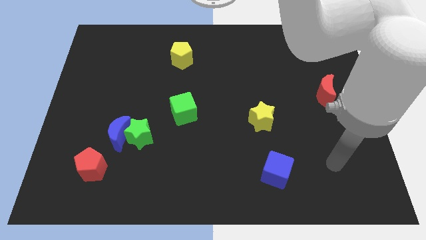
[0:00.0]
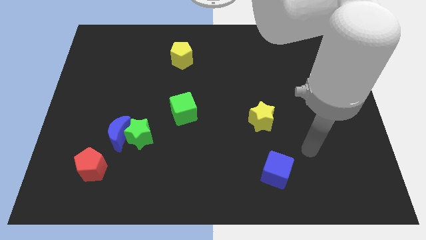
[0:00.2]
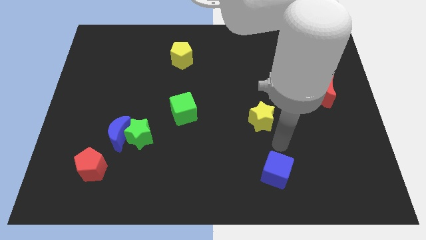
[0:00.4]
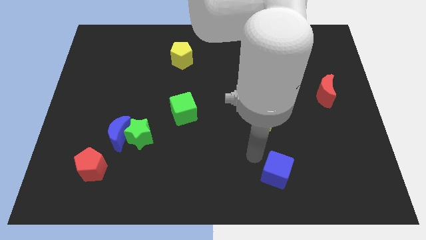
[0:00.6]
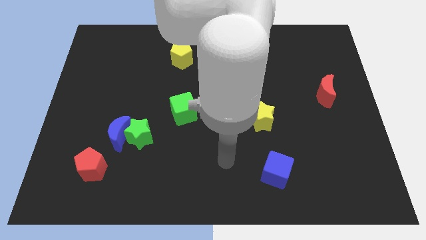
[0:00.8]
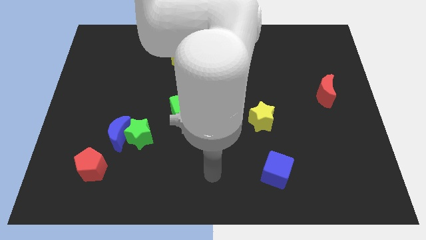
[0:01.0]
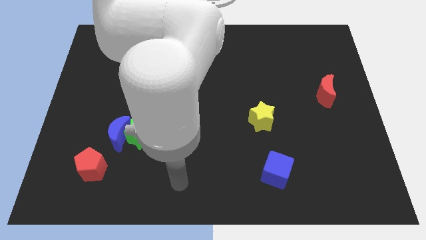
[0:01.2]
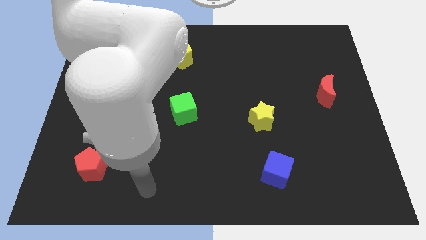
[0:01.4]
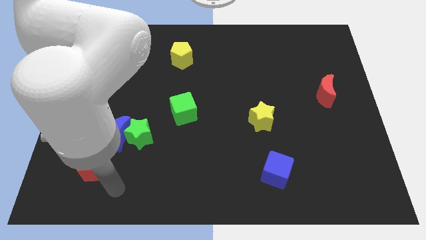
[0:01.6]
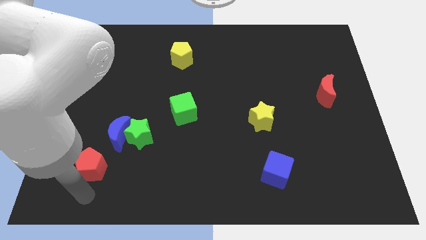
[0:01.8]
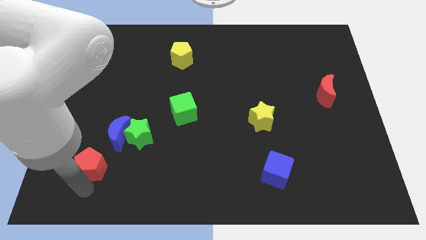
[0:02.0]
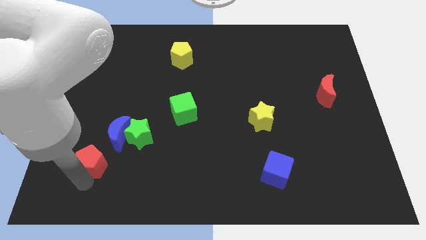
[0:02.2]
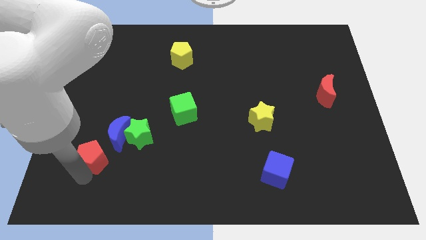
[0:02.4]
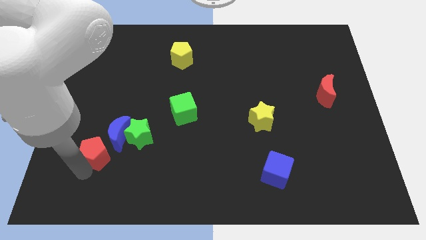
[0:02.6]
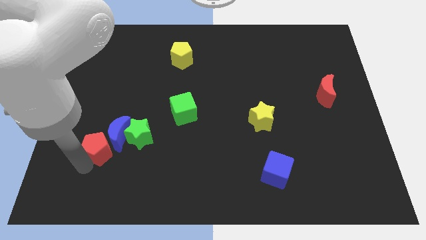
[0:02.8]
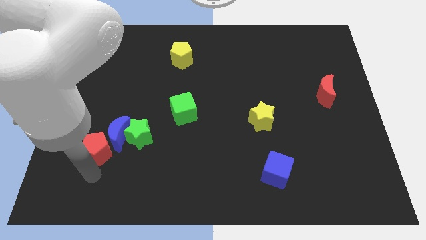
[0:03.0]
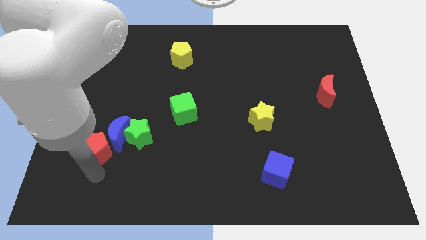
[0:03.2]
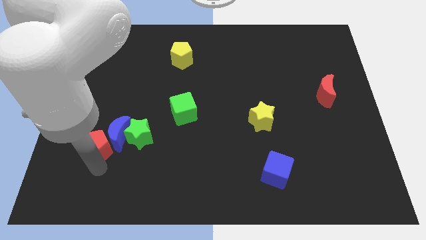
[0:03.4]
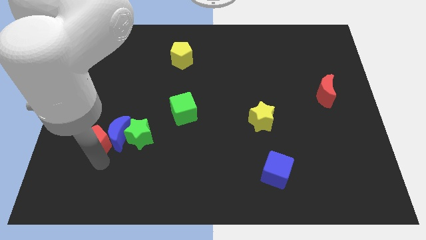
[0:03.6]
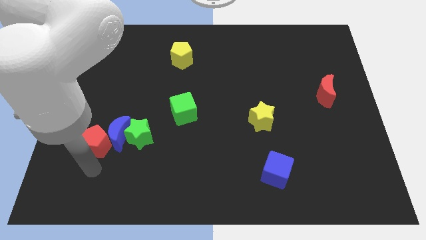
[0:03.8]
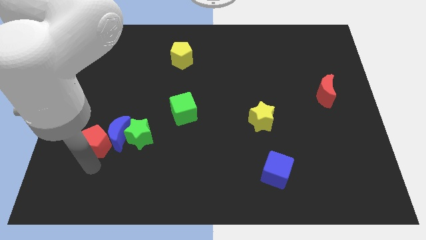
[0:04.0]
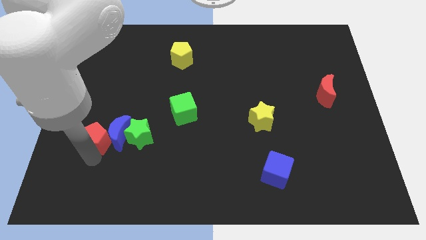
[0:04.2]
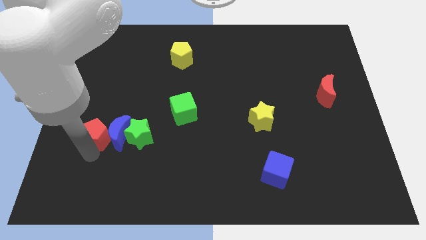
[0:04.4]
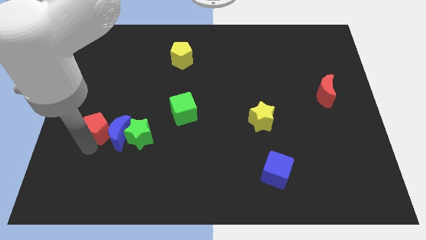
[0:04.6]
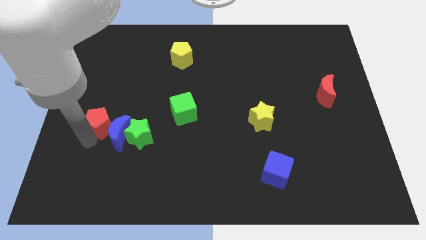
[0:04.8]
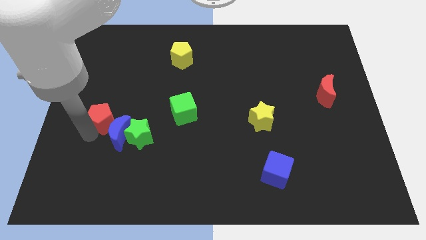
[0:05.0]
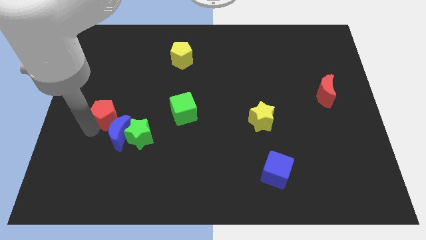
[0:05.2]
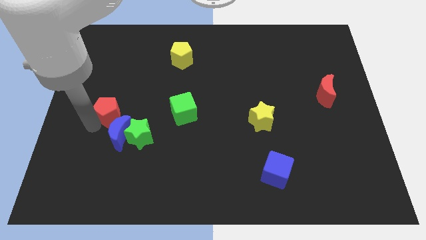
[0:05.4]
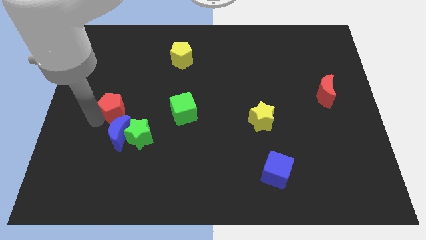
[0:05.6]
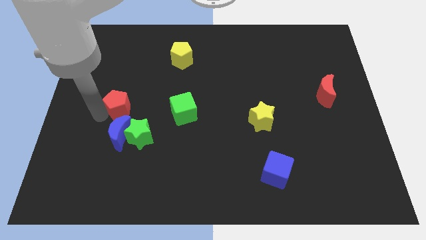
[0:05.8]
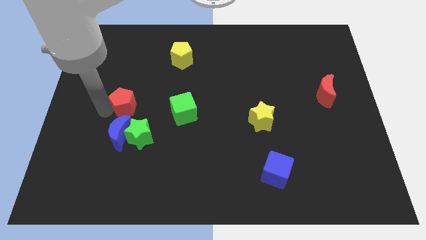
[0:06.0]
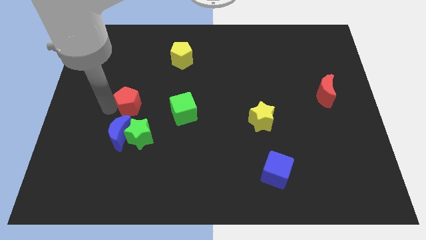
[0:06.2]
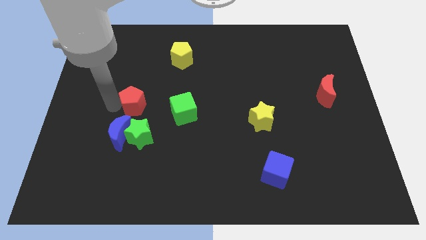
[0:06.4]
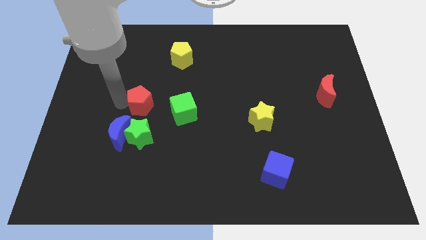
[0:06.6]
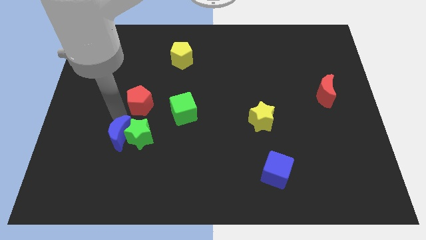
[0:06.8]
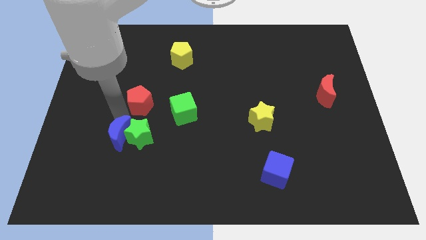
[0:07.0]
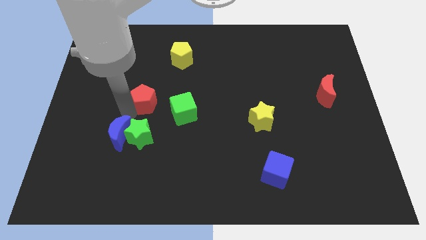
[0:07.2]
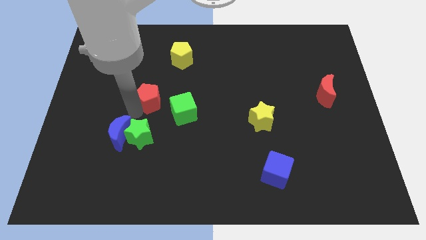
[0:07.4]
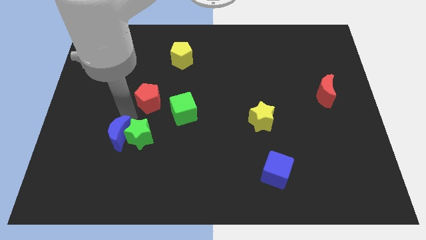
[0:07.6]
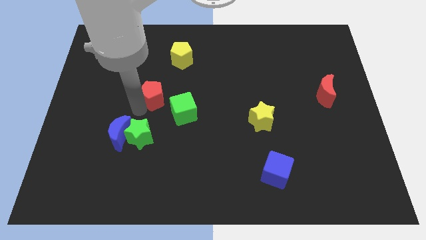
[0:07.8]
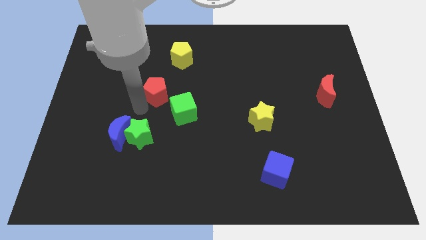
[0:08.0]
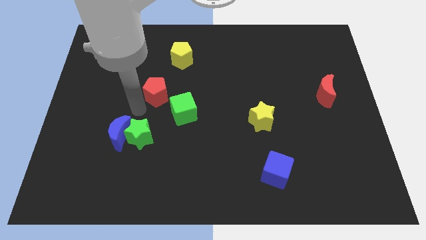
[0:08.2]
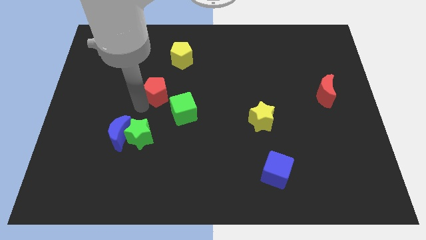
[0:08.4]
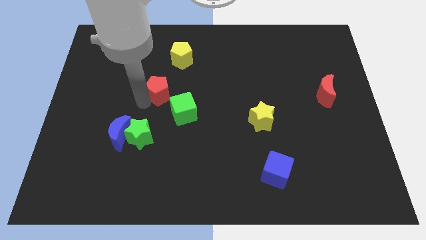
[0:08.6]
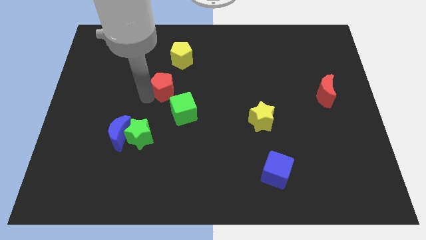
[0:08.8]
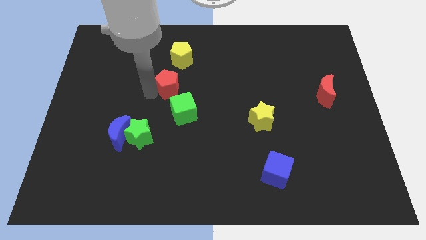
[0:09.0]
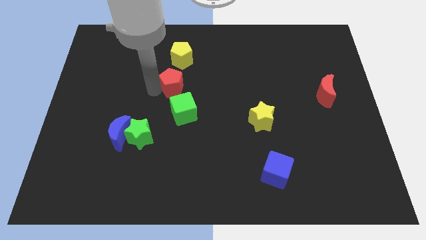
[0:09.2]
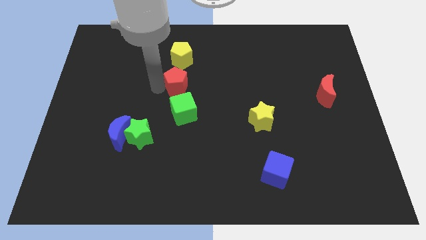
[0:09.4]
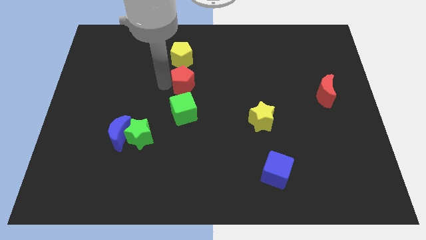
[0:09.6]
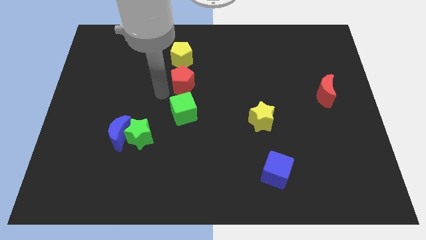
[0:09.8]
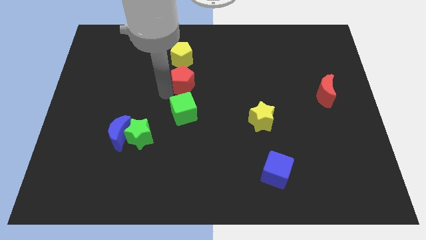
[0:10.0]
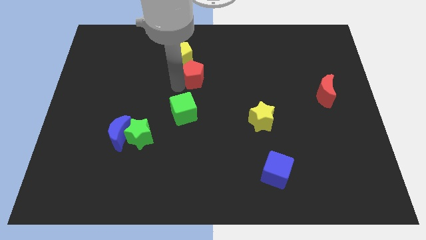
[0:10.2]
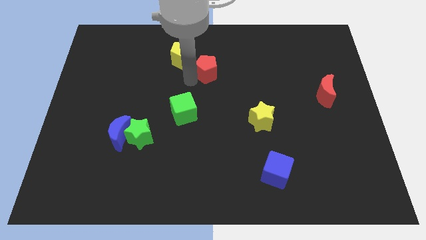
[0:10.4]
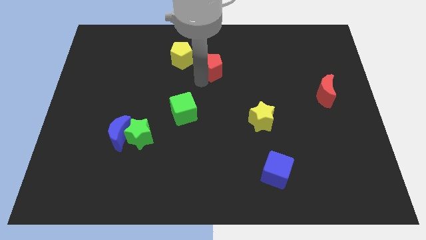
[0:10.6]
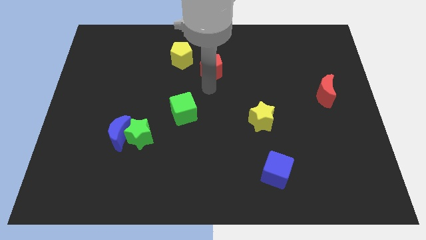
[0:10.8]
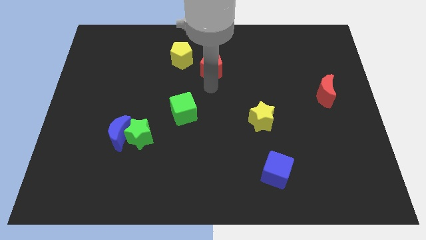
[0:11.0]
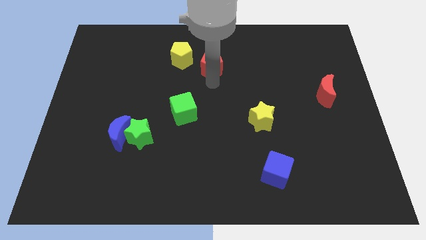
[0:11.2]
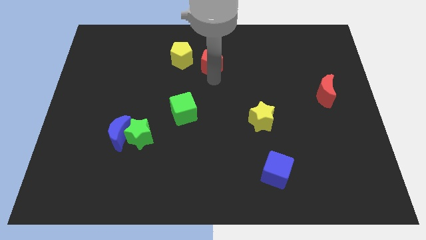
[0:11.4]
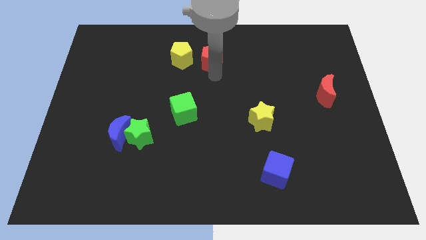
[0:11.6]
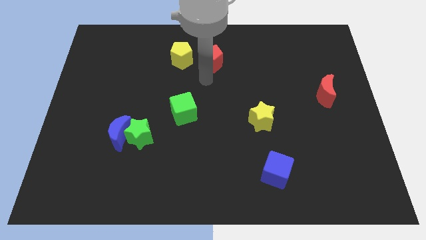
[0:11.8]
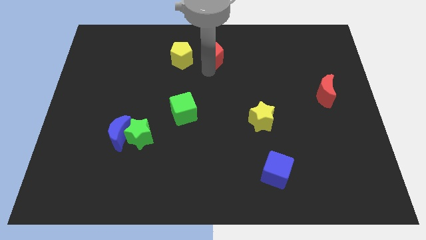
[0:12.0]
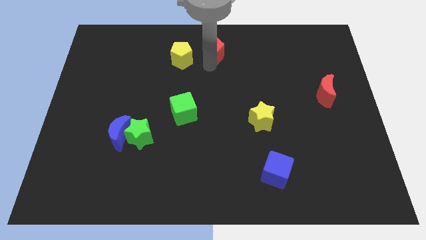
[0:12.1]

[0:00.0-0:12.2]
slide the red pentagon to the top side

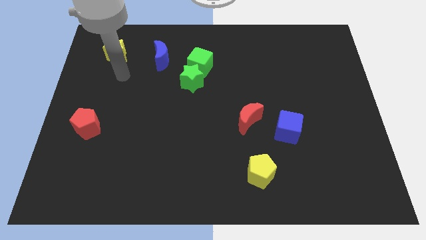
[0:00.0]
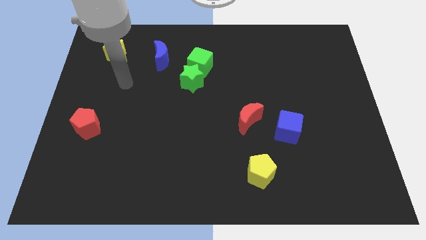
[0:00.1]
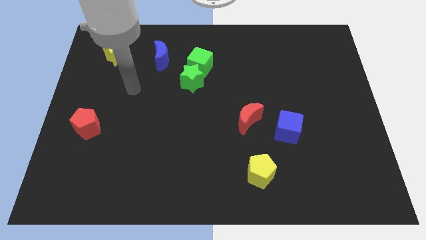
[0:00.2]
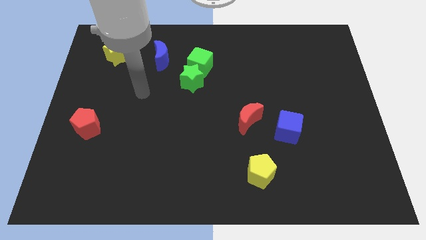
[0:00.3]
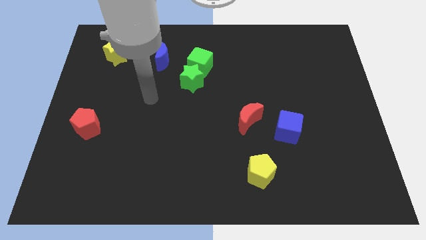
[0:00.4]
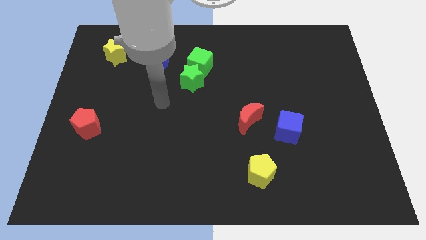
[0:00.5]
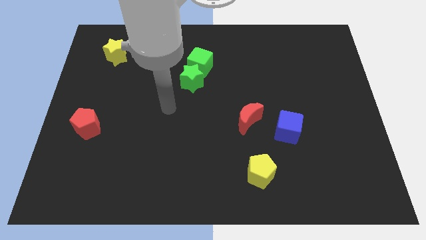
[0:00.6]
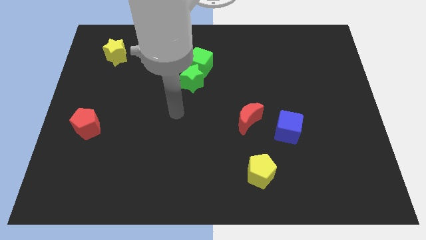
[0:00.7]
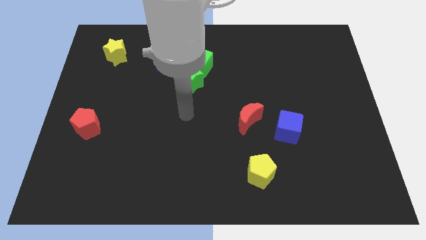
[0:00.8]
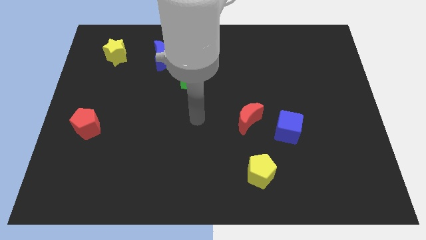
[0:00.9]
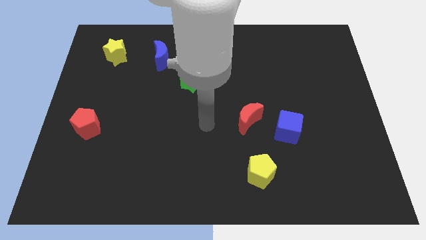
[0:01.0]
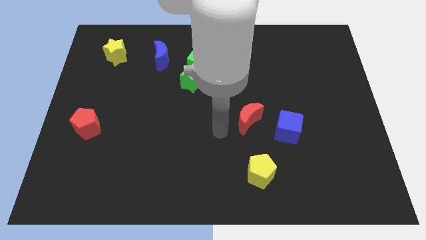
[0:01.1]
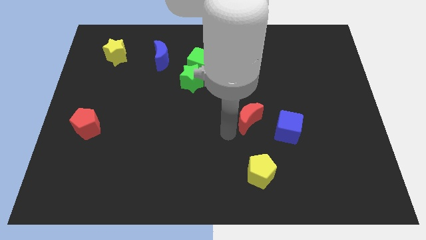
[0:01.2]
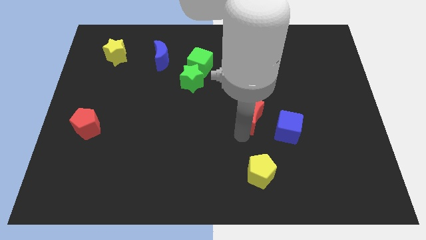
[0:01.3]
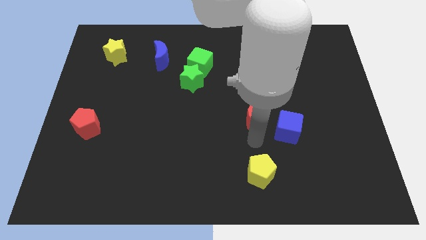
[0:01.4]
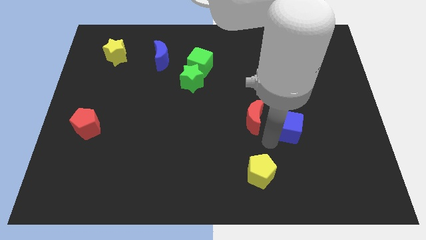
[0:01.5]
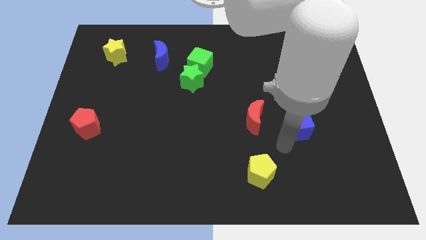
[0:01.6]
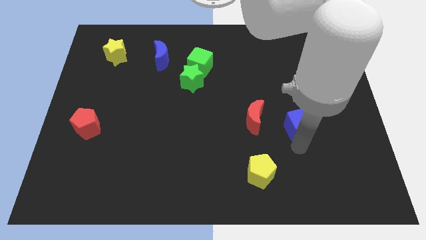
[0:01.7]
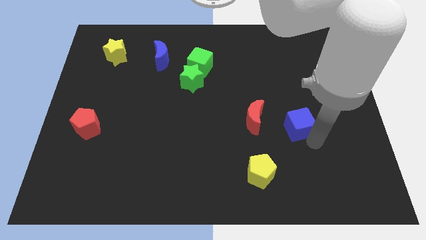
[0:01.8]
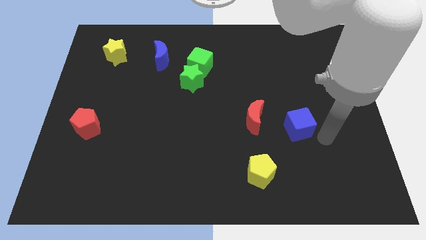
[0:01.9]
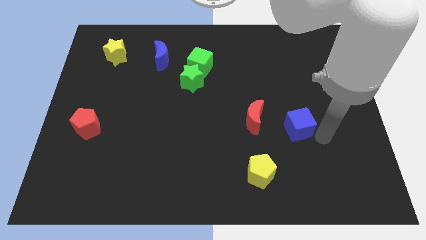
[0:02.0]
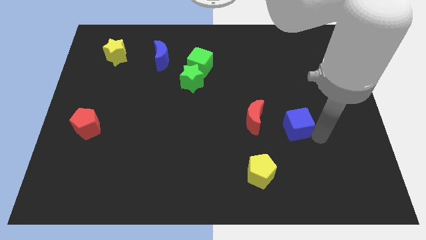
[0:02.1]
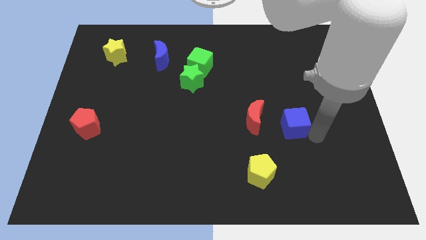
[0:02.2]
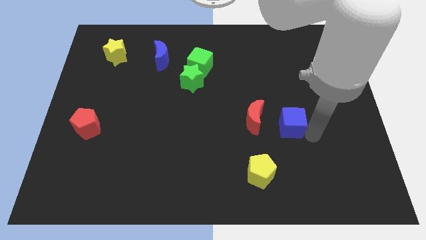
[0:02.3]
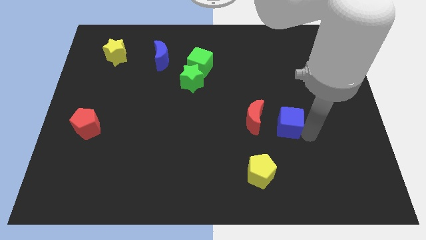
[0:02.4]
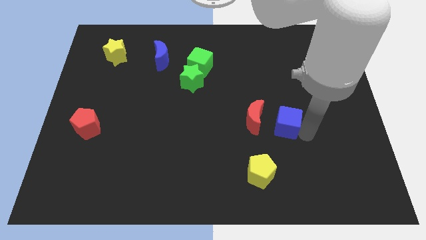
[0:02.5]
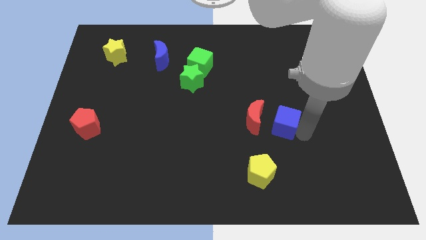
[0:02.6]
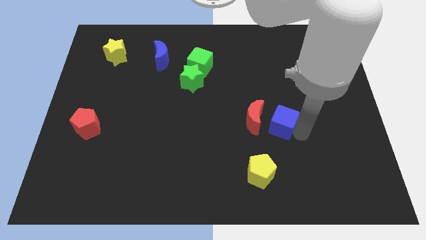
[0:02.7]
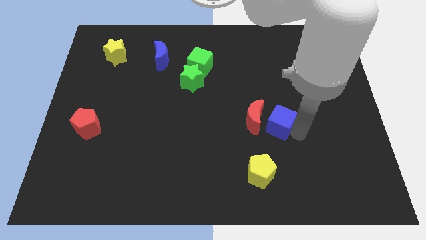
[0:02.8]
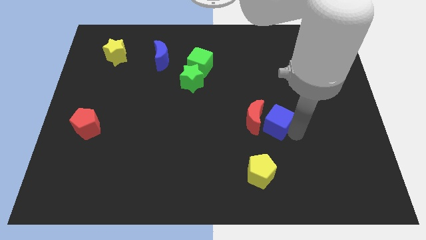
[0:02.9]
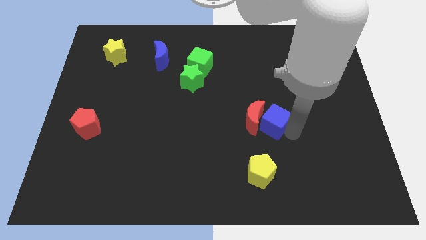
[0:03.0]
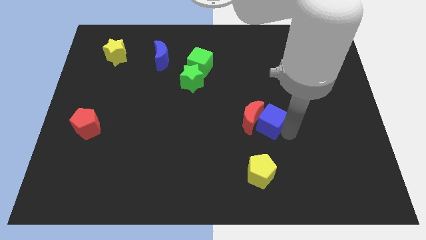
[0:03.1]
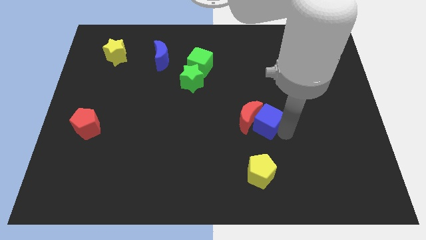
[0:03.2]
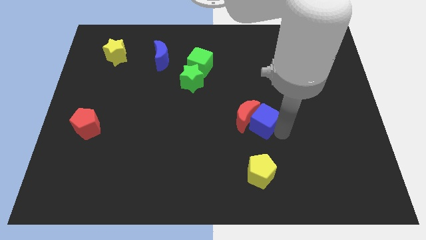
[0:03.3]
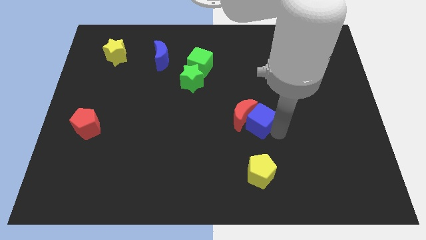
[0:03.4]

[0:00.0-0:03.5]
push the blue cube to the center
